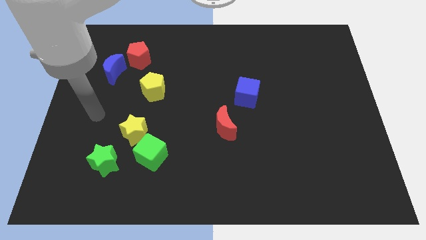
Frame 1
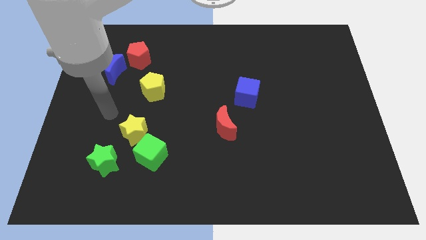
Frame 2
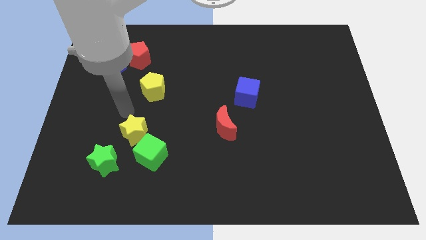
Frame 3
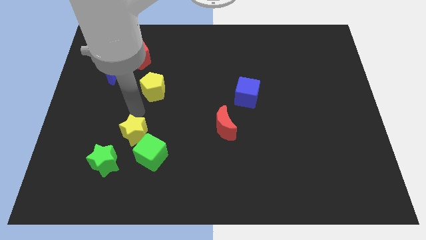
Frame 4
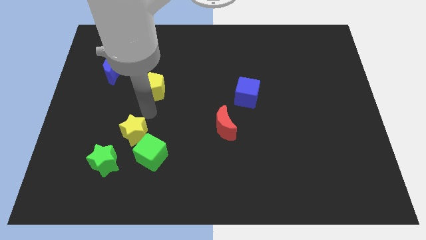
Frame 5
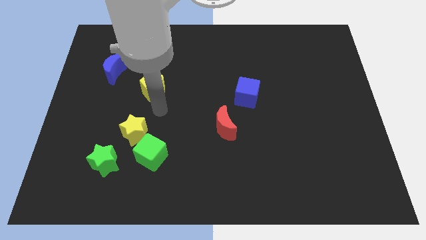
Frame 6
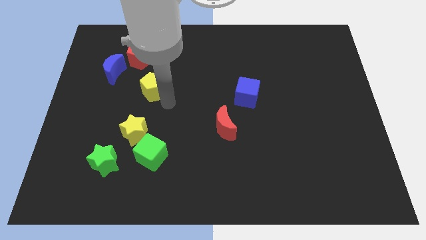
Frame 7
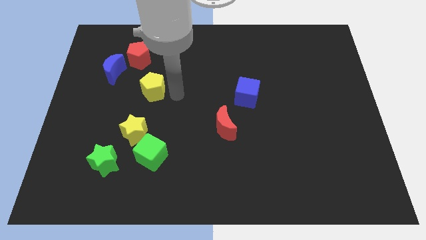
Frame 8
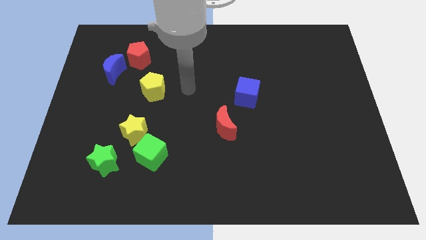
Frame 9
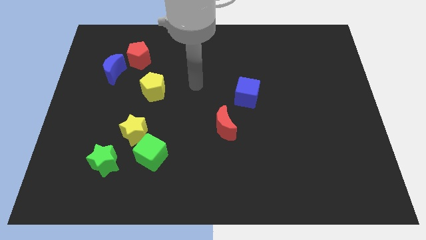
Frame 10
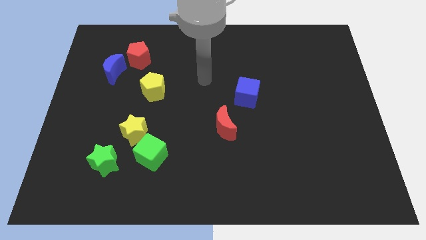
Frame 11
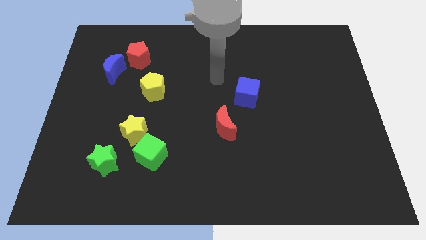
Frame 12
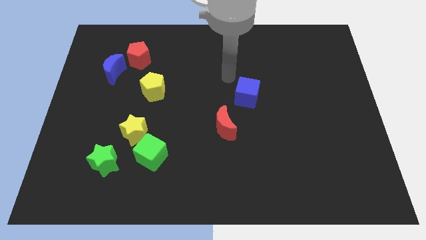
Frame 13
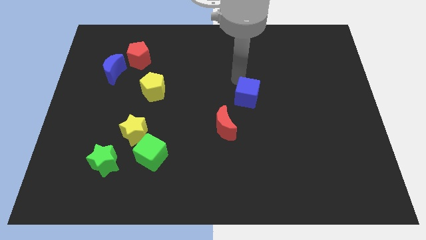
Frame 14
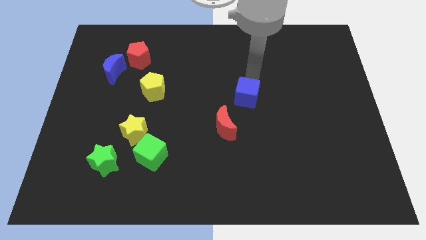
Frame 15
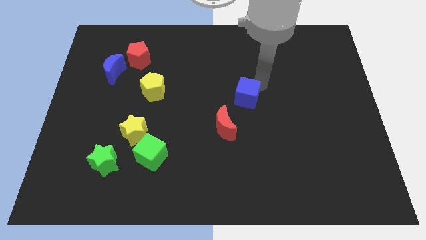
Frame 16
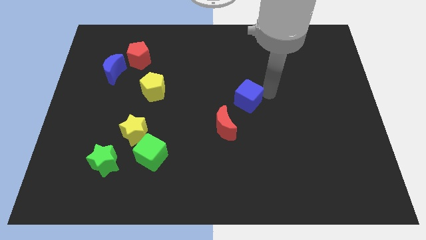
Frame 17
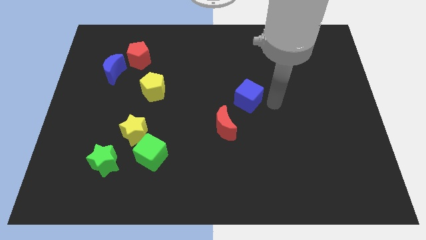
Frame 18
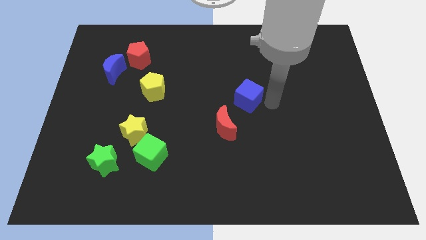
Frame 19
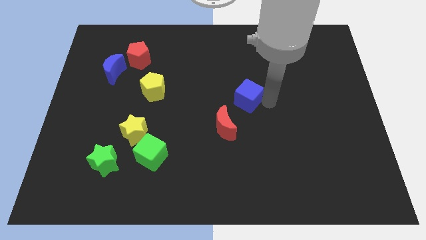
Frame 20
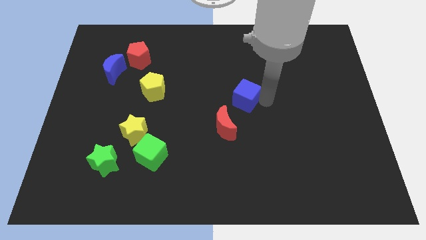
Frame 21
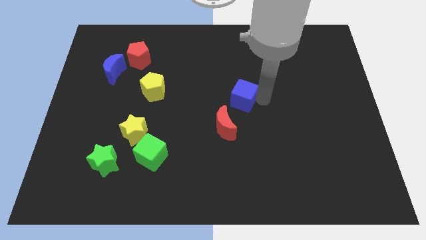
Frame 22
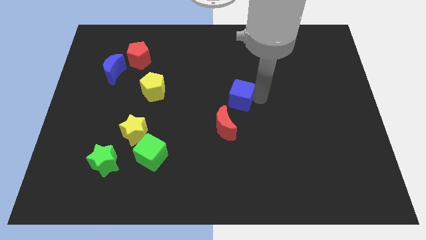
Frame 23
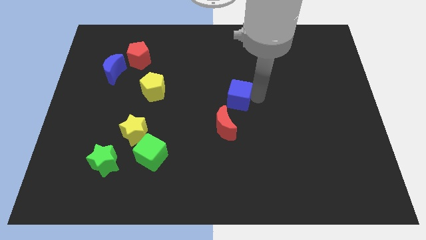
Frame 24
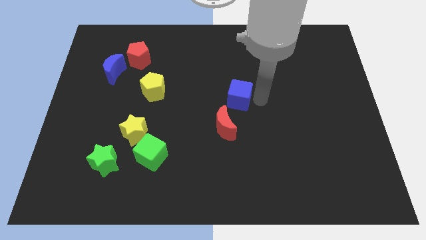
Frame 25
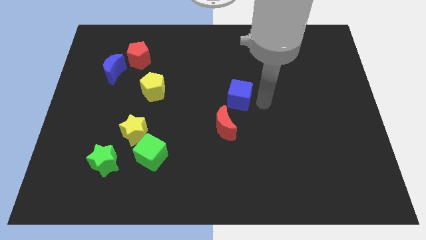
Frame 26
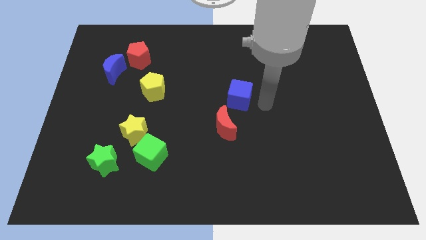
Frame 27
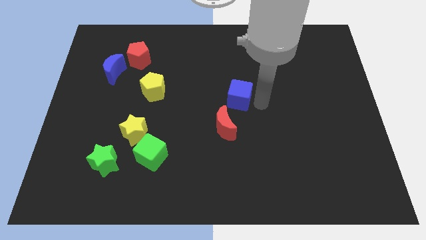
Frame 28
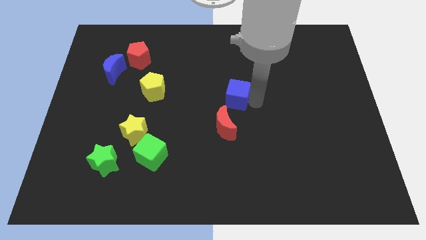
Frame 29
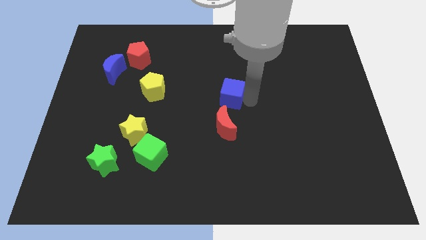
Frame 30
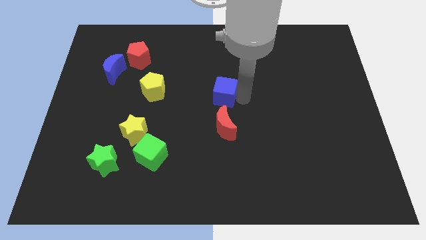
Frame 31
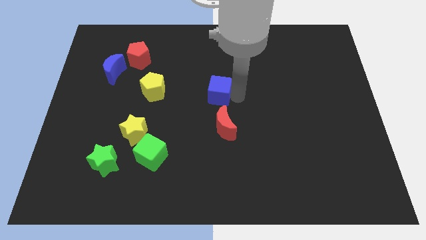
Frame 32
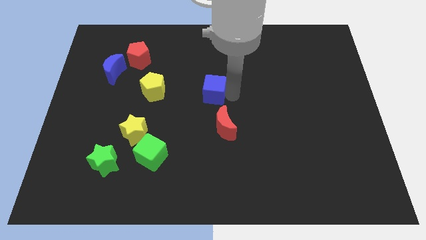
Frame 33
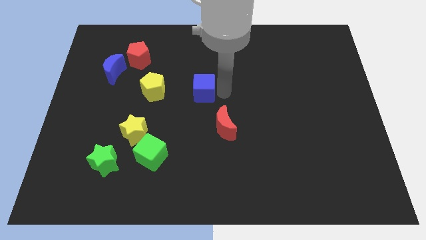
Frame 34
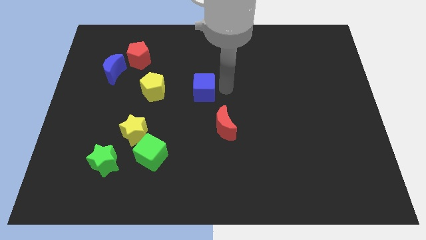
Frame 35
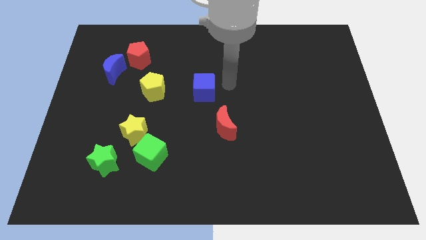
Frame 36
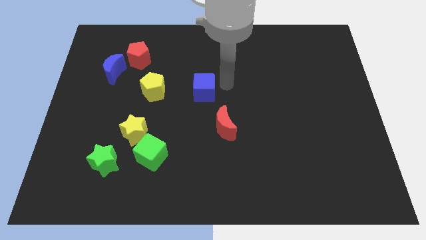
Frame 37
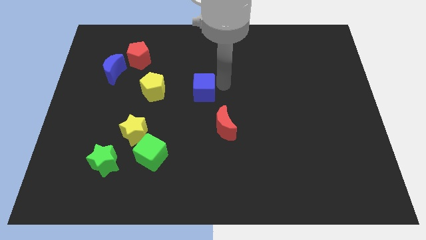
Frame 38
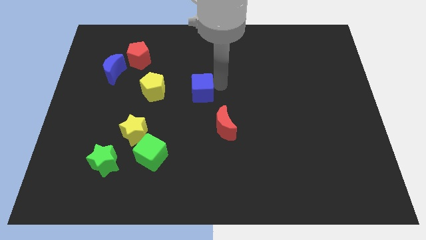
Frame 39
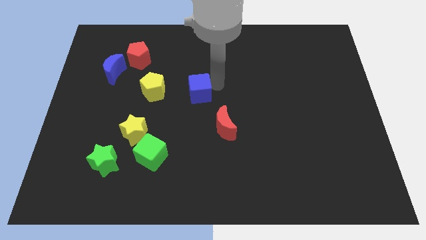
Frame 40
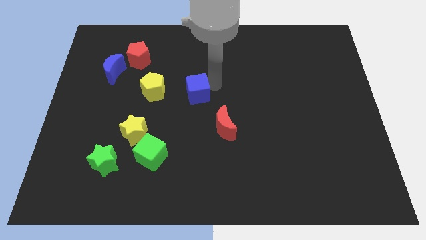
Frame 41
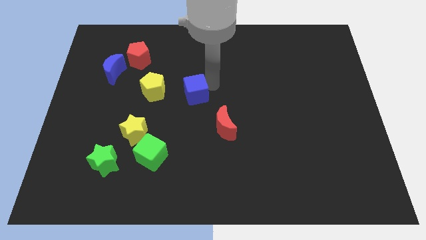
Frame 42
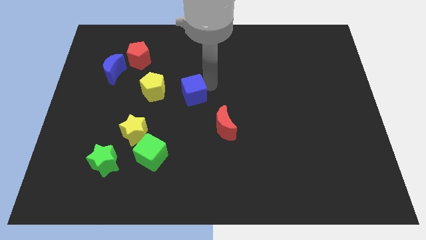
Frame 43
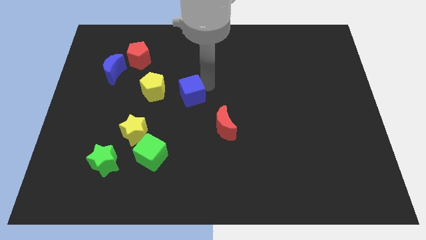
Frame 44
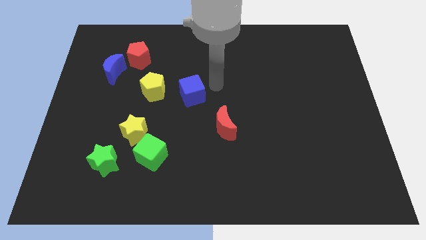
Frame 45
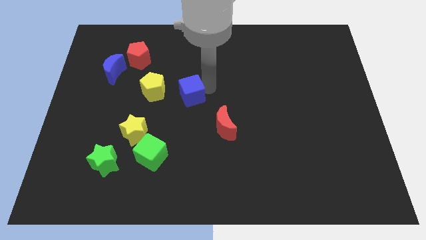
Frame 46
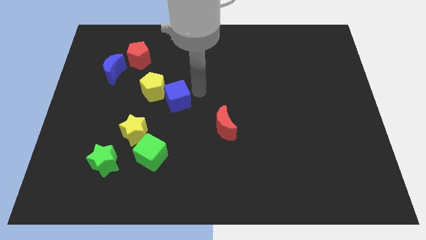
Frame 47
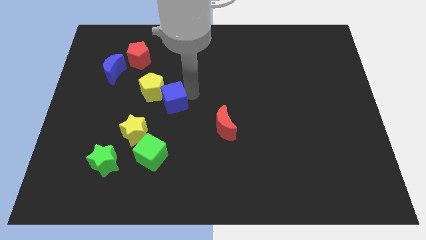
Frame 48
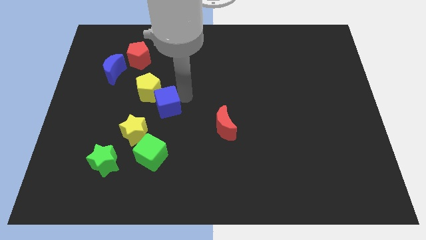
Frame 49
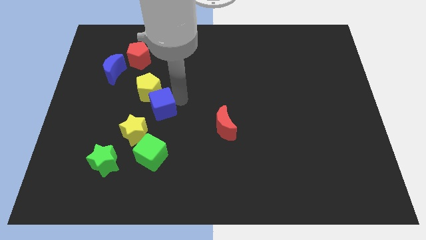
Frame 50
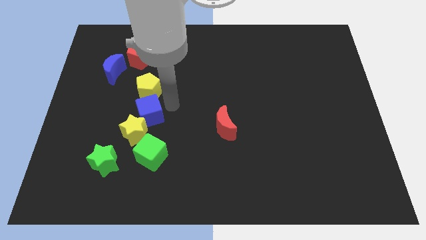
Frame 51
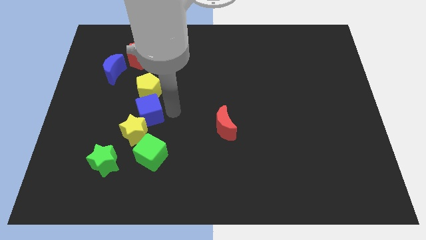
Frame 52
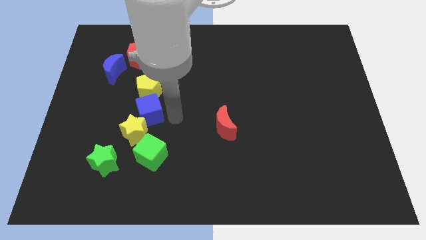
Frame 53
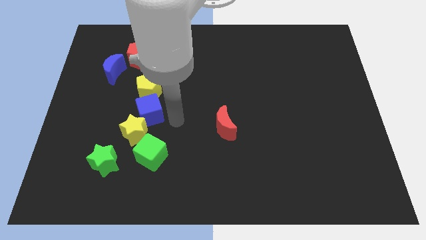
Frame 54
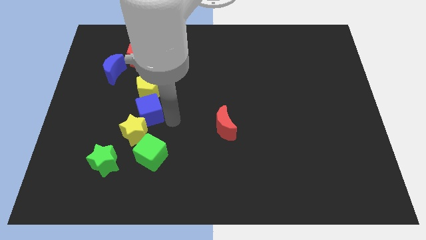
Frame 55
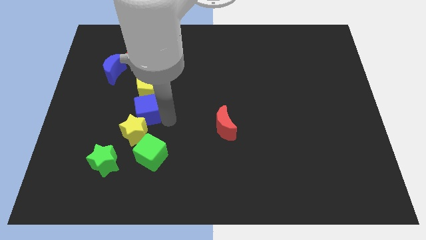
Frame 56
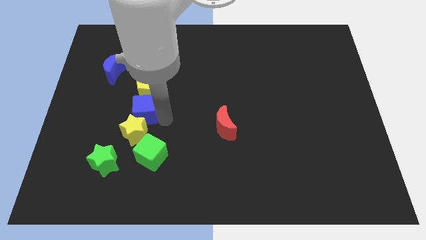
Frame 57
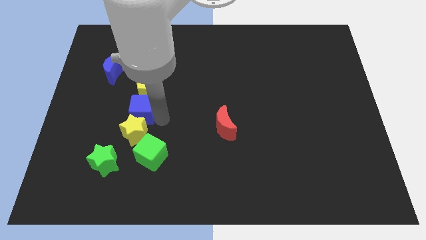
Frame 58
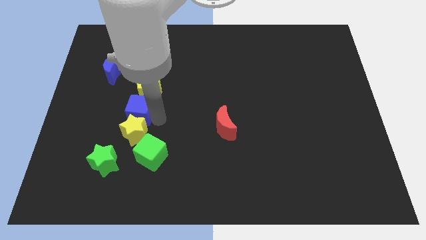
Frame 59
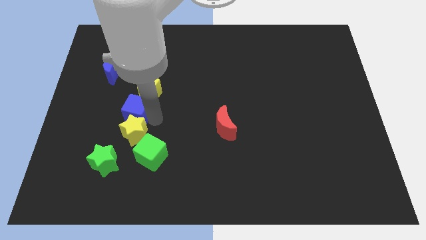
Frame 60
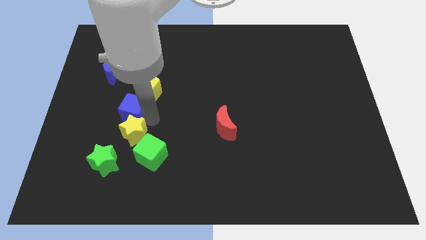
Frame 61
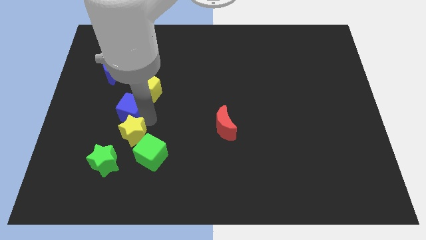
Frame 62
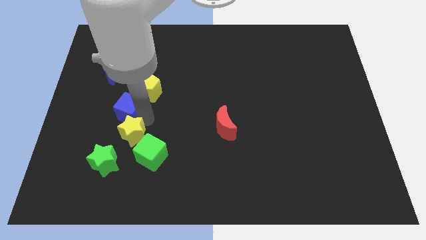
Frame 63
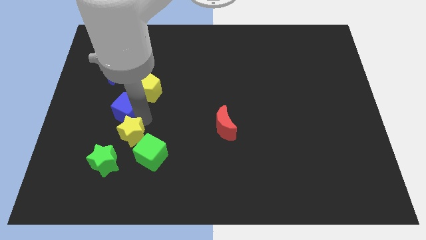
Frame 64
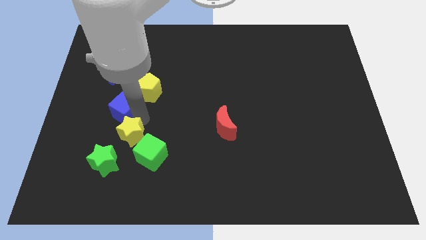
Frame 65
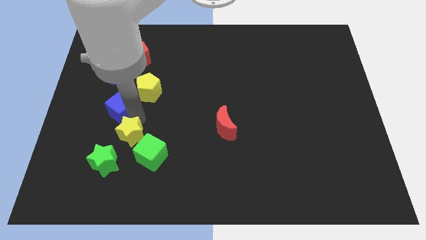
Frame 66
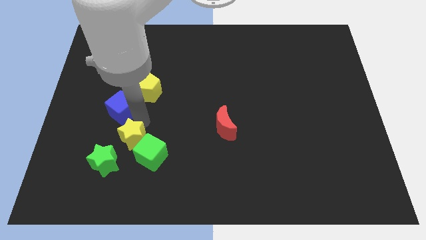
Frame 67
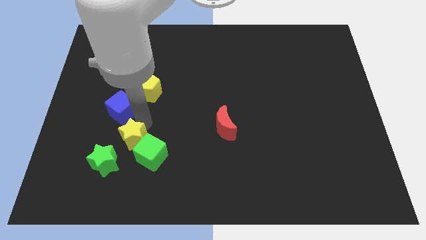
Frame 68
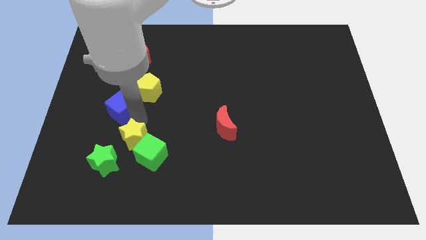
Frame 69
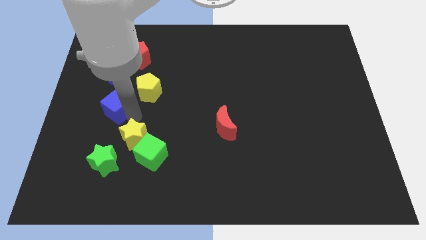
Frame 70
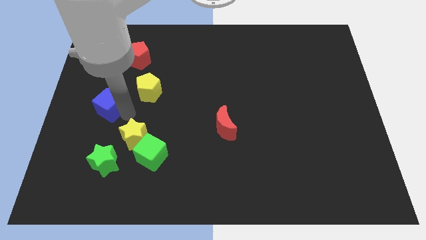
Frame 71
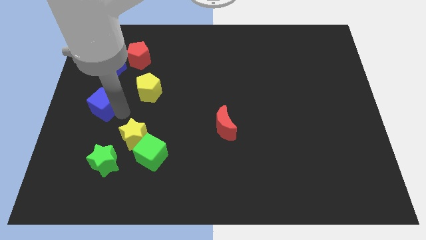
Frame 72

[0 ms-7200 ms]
push the blue cube to the left side
